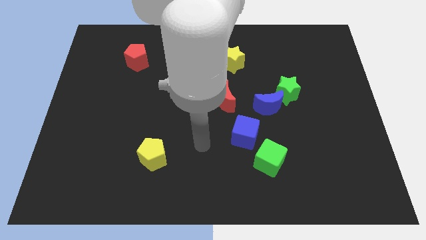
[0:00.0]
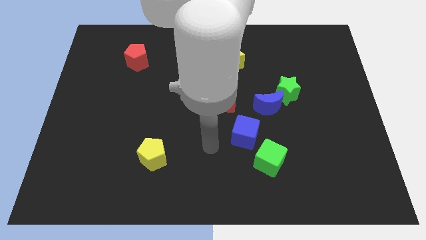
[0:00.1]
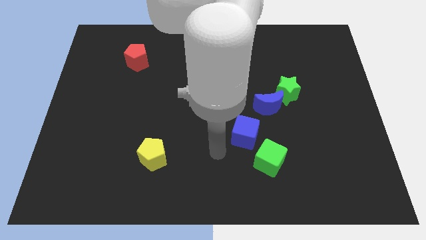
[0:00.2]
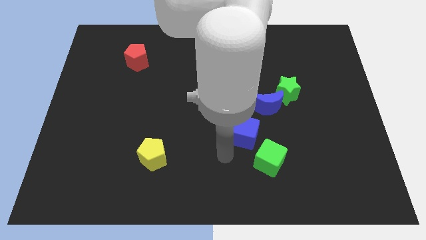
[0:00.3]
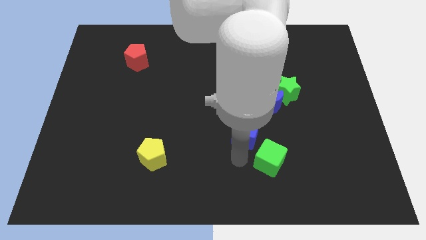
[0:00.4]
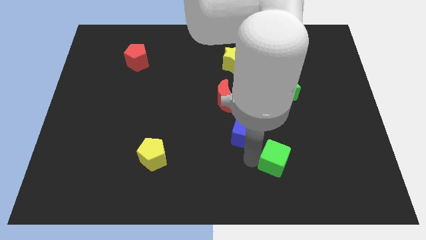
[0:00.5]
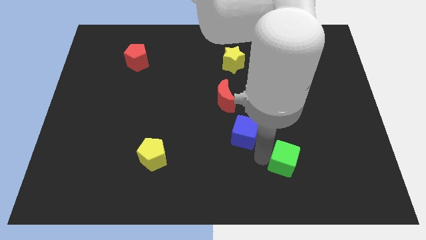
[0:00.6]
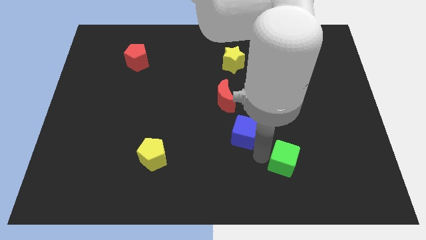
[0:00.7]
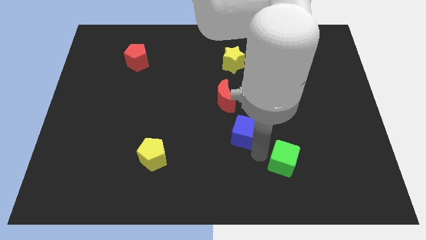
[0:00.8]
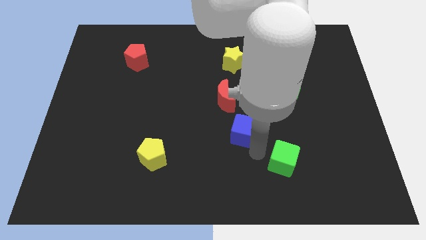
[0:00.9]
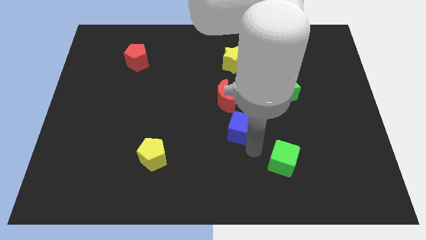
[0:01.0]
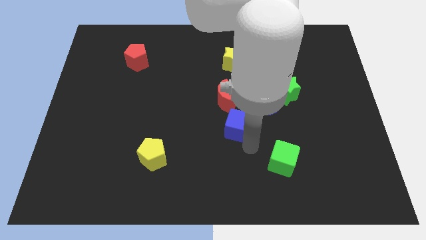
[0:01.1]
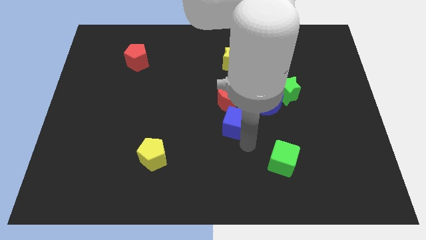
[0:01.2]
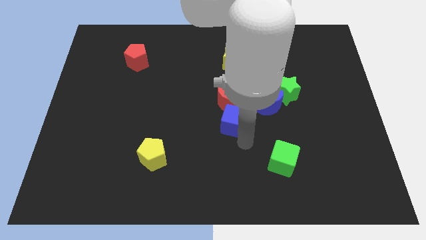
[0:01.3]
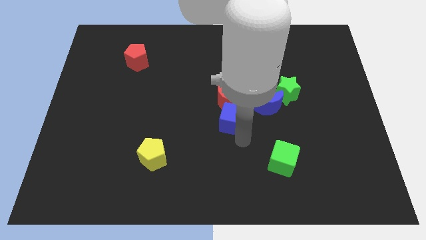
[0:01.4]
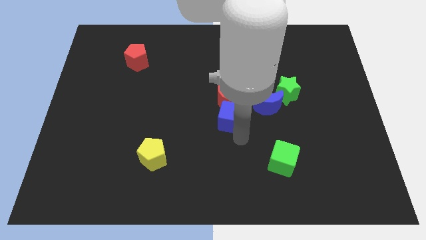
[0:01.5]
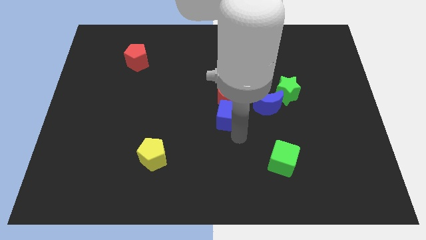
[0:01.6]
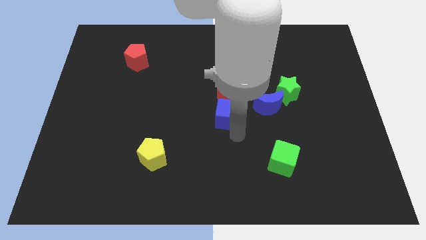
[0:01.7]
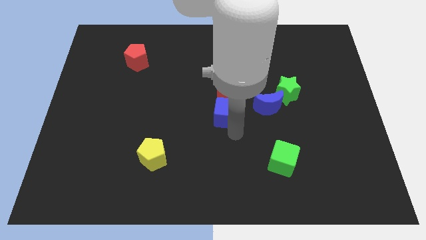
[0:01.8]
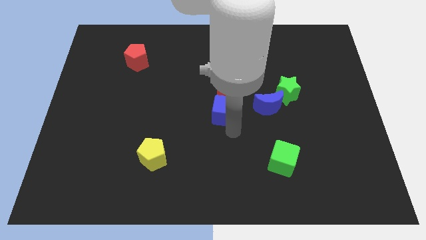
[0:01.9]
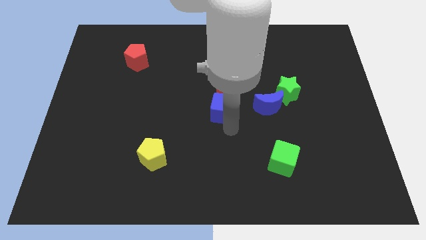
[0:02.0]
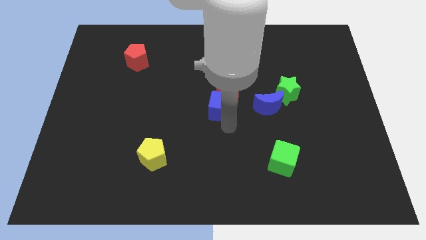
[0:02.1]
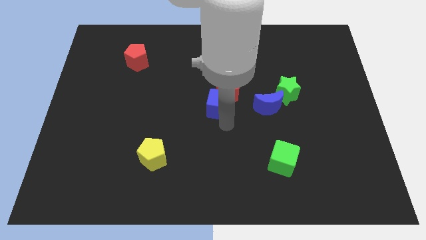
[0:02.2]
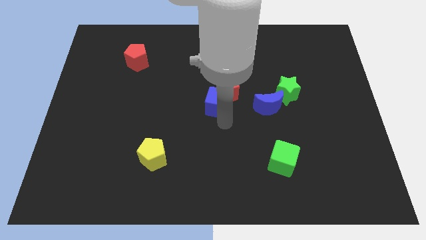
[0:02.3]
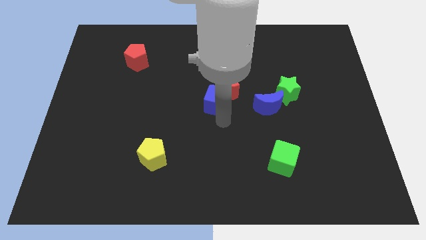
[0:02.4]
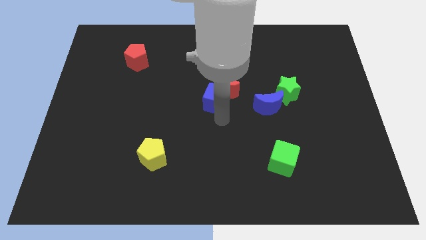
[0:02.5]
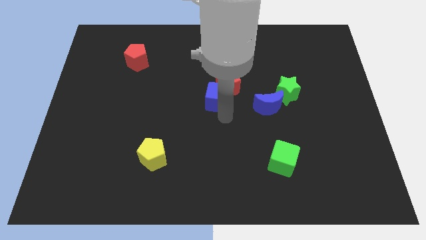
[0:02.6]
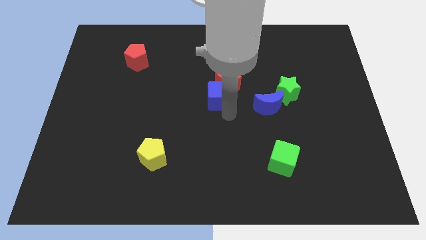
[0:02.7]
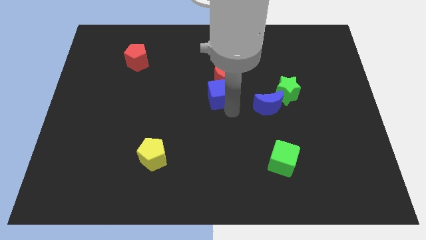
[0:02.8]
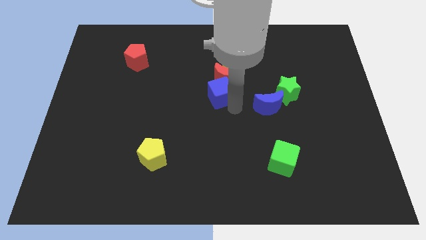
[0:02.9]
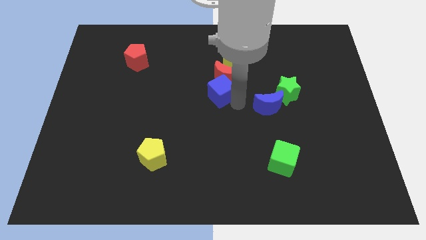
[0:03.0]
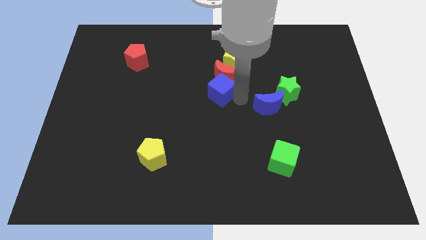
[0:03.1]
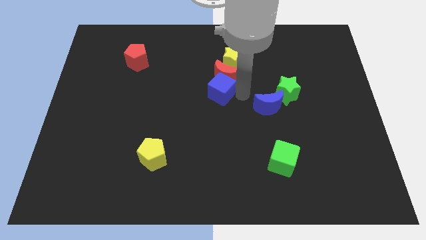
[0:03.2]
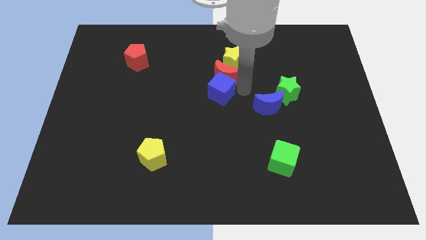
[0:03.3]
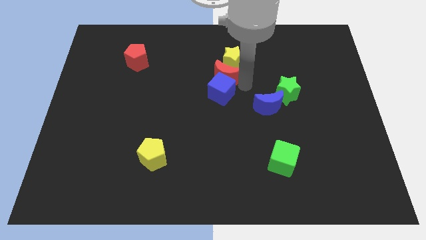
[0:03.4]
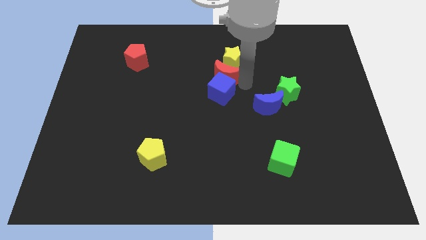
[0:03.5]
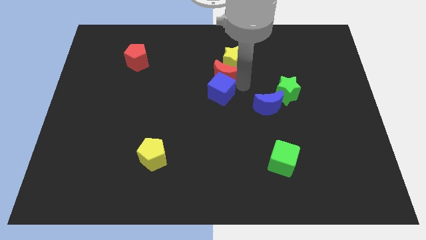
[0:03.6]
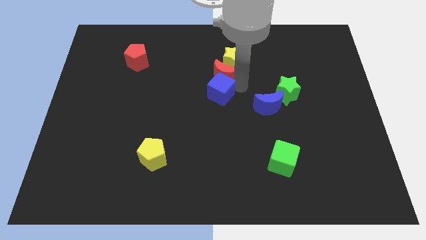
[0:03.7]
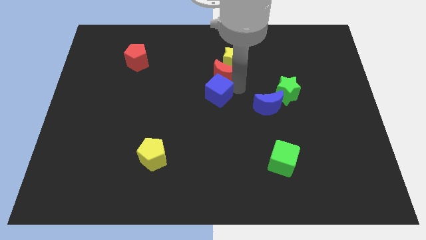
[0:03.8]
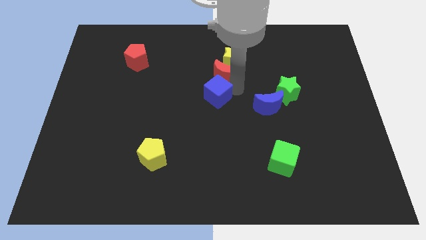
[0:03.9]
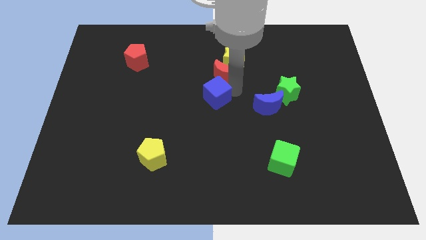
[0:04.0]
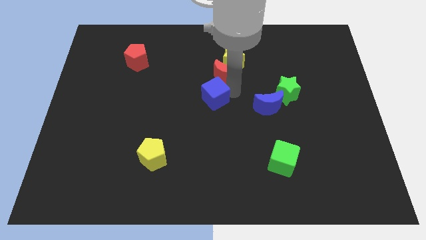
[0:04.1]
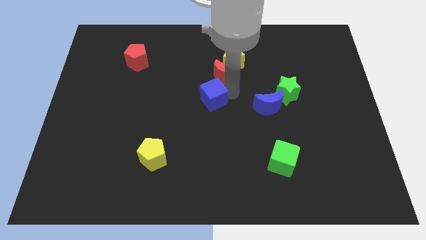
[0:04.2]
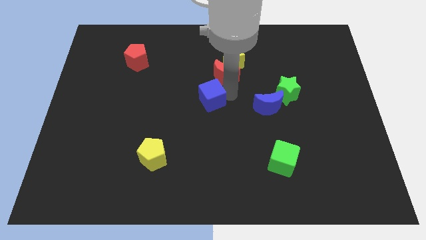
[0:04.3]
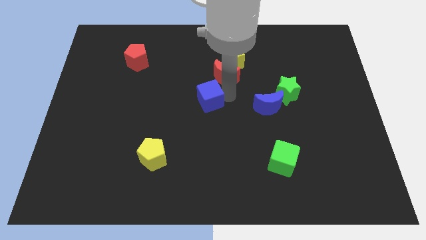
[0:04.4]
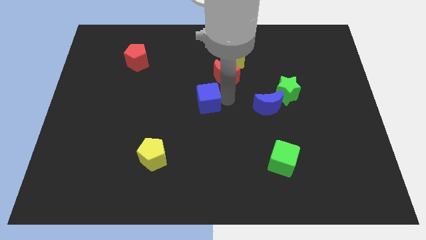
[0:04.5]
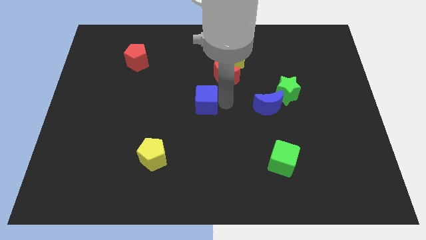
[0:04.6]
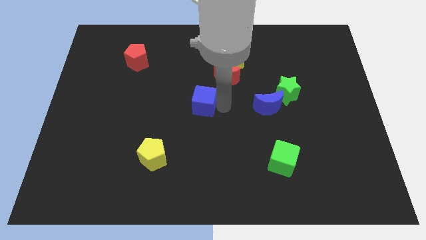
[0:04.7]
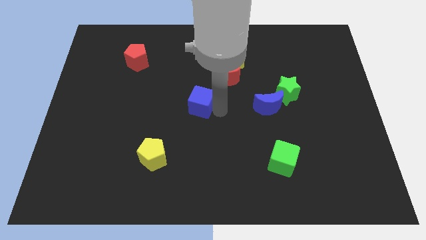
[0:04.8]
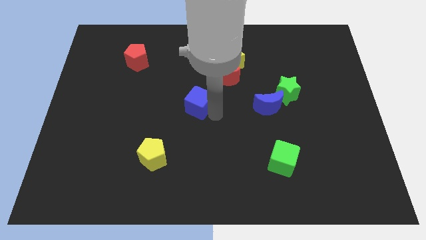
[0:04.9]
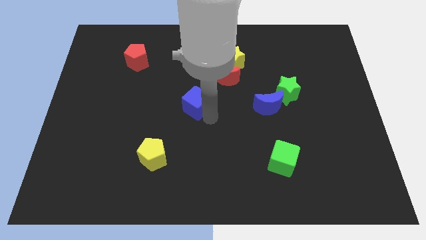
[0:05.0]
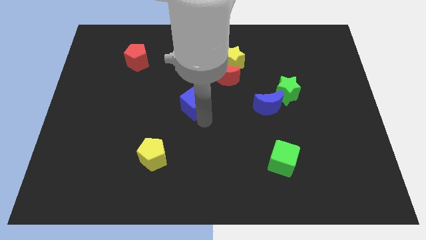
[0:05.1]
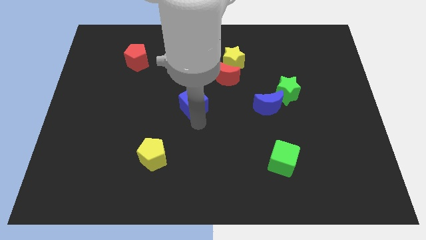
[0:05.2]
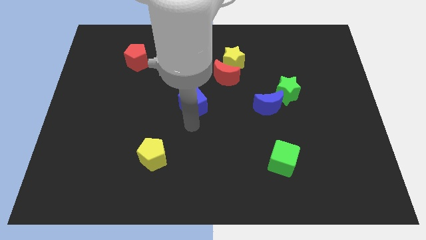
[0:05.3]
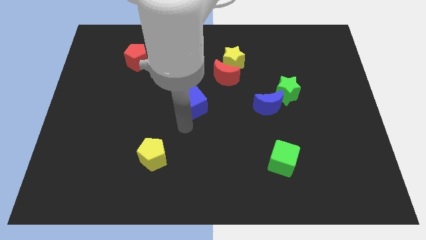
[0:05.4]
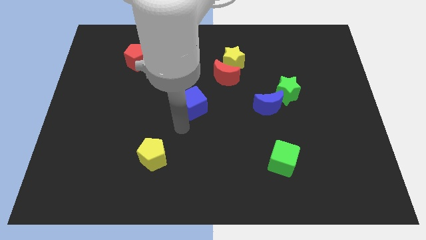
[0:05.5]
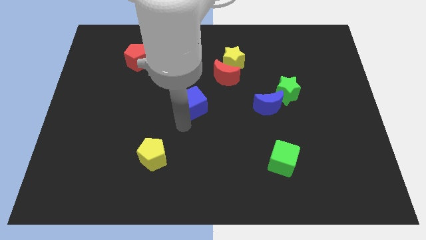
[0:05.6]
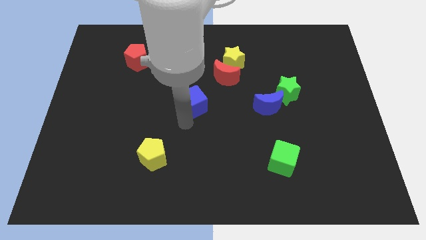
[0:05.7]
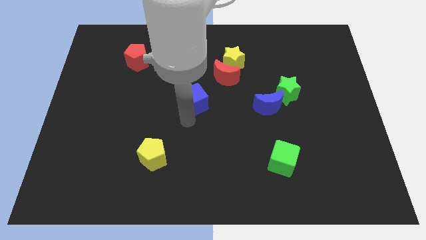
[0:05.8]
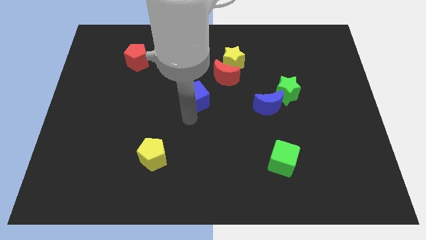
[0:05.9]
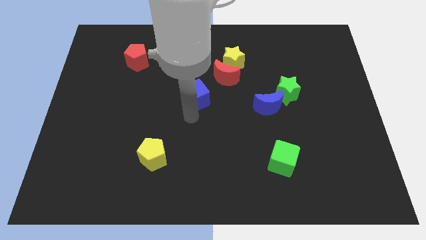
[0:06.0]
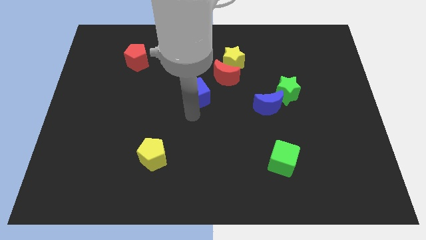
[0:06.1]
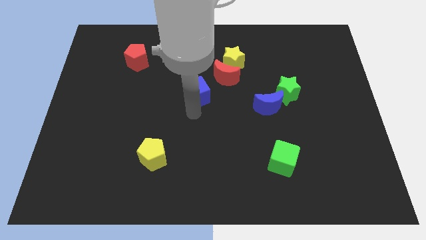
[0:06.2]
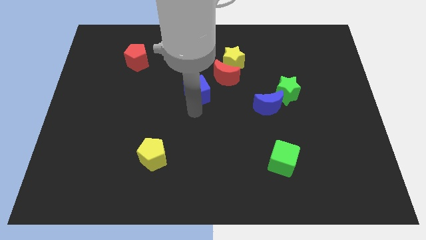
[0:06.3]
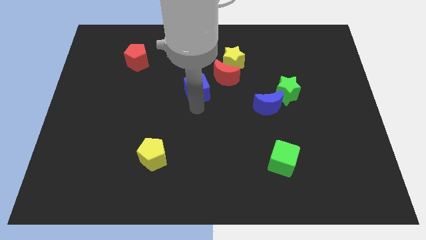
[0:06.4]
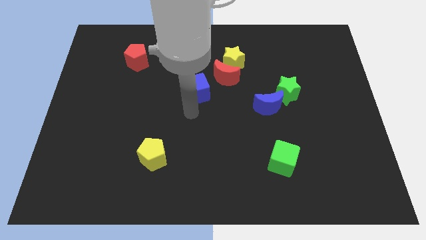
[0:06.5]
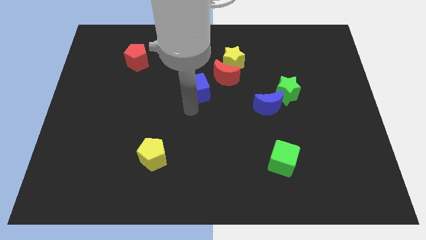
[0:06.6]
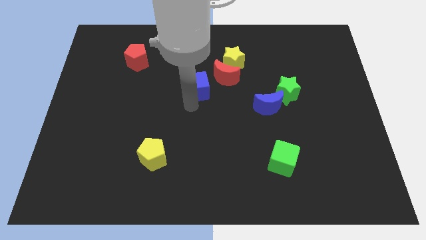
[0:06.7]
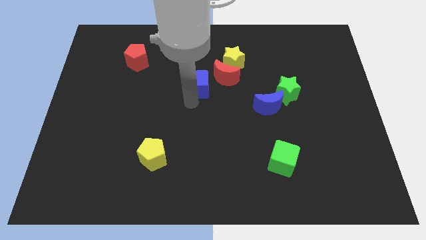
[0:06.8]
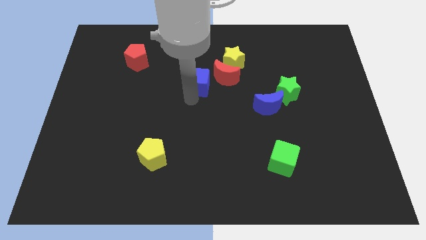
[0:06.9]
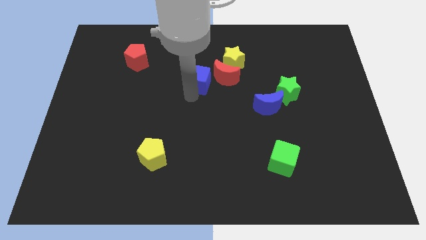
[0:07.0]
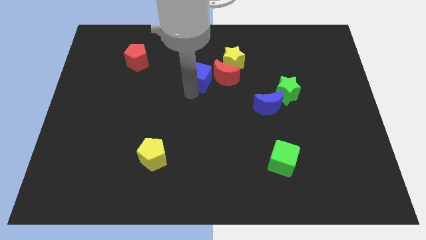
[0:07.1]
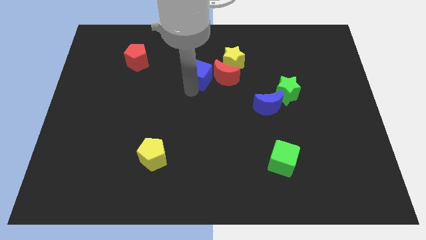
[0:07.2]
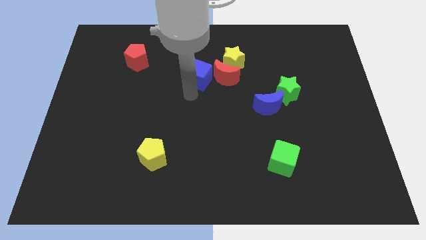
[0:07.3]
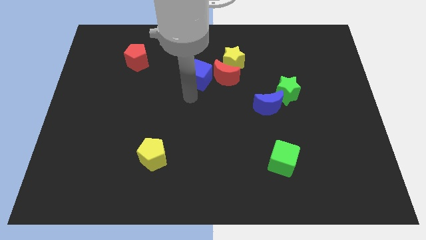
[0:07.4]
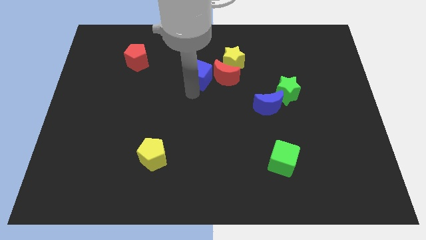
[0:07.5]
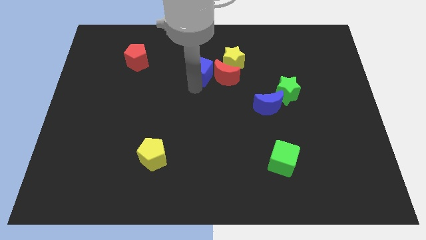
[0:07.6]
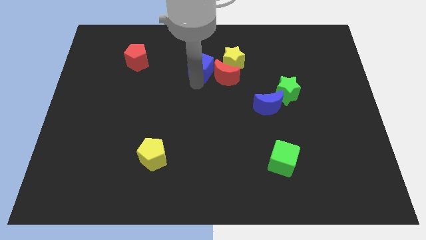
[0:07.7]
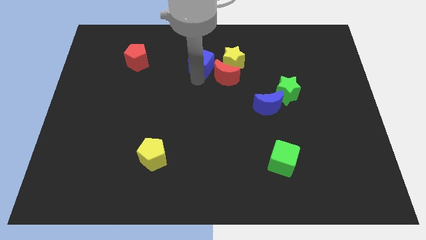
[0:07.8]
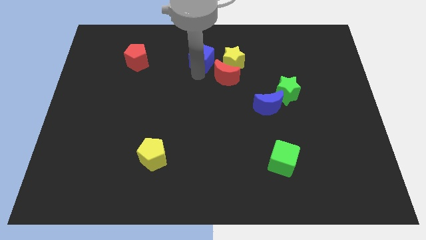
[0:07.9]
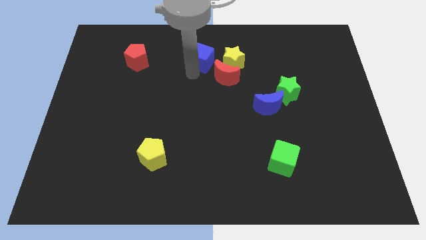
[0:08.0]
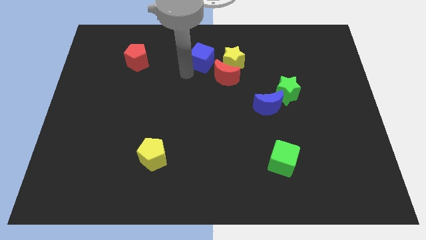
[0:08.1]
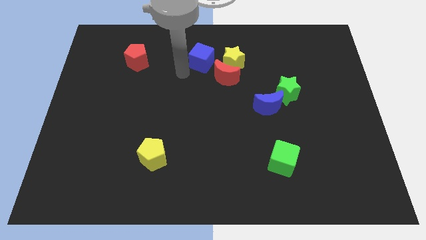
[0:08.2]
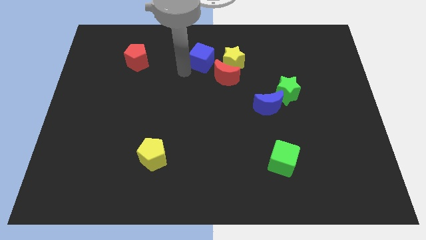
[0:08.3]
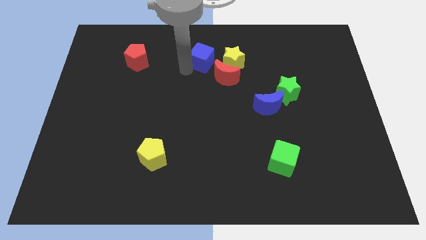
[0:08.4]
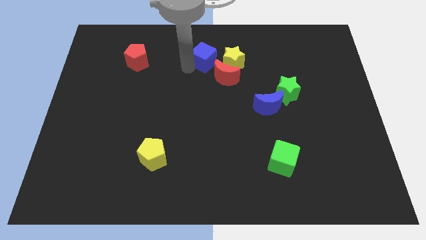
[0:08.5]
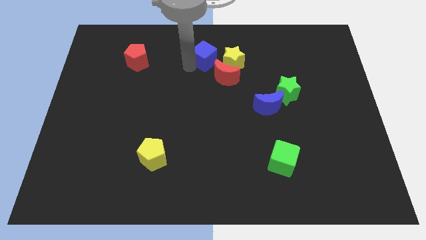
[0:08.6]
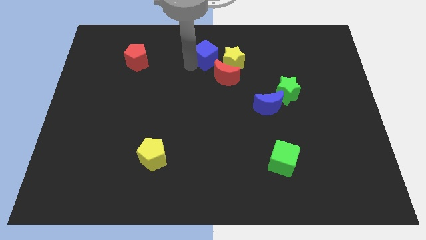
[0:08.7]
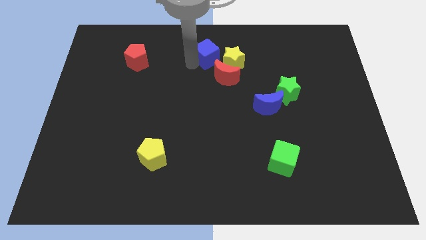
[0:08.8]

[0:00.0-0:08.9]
move the blue cube to the top side
